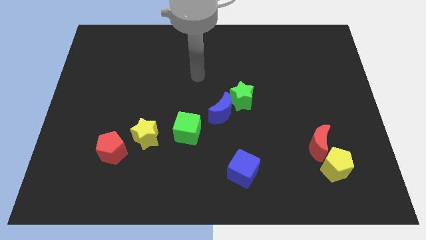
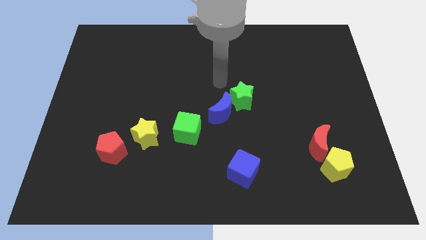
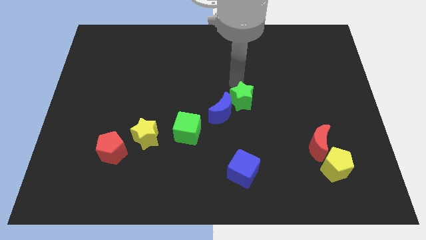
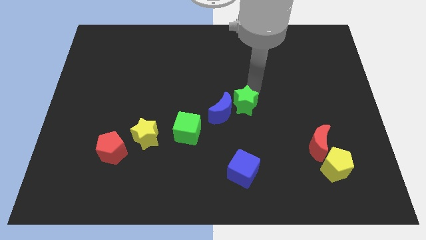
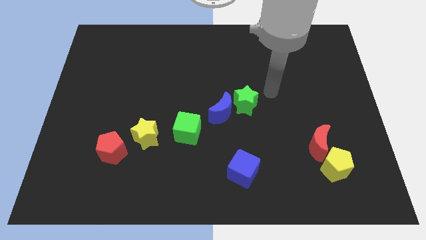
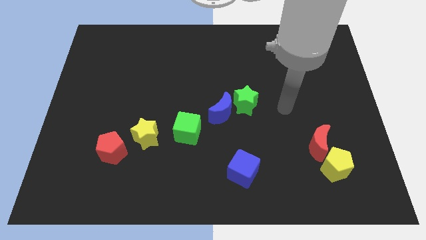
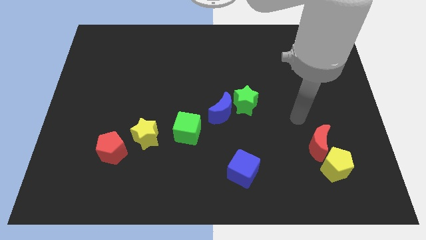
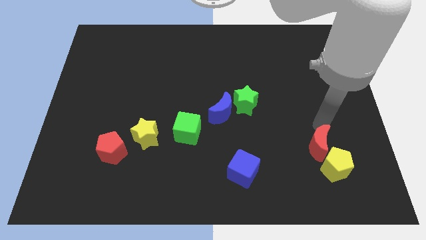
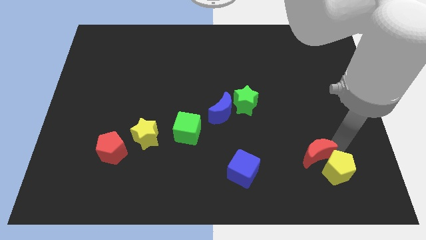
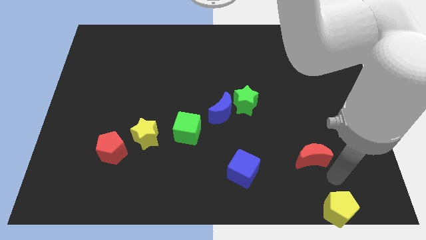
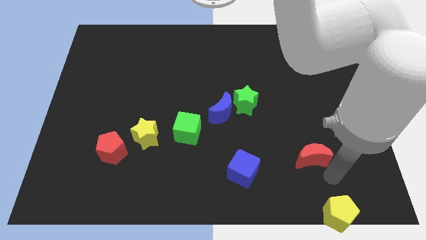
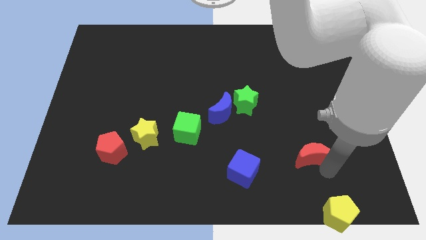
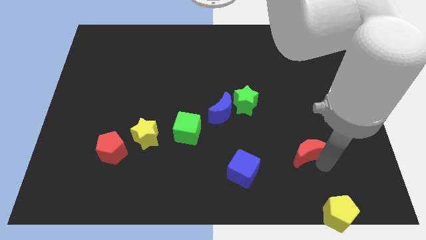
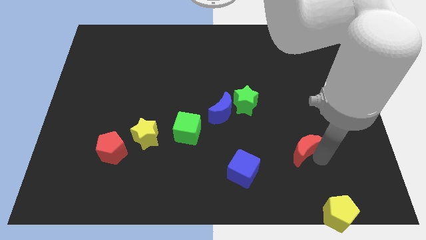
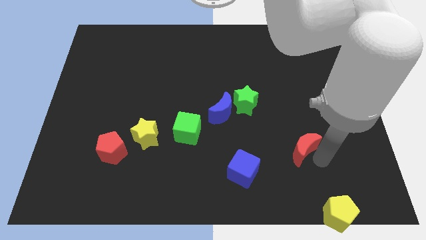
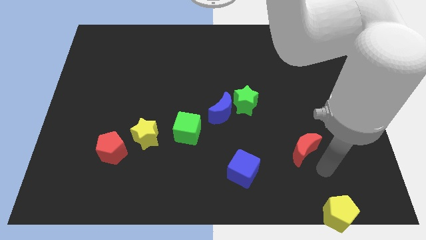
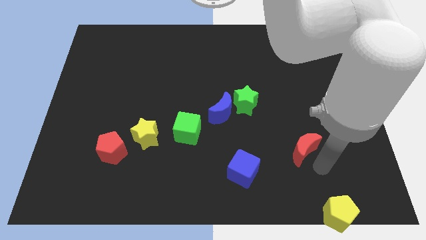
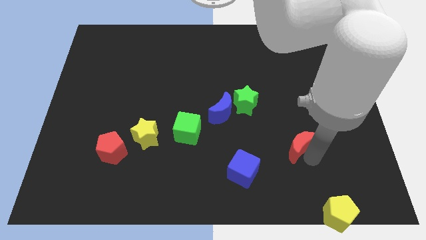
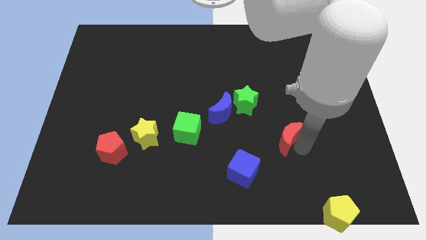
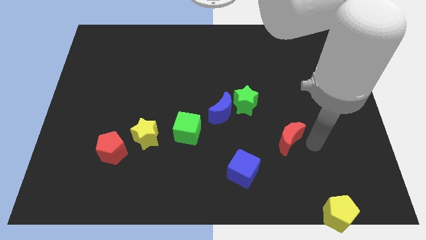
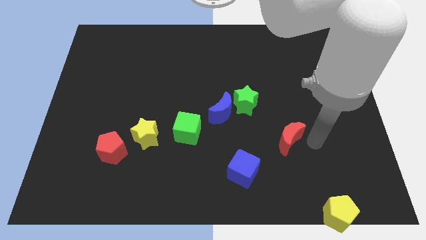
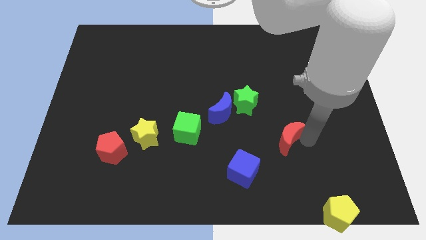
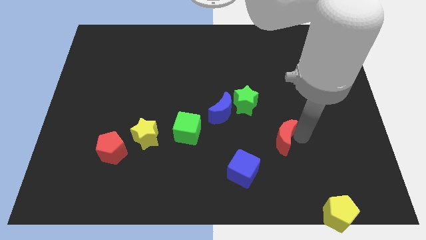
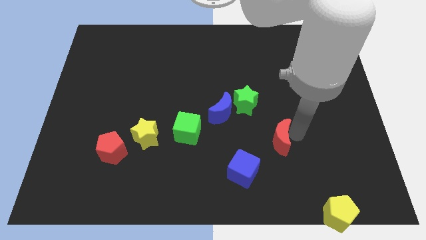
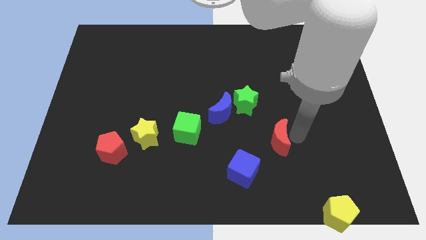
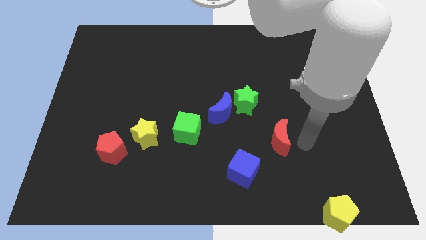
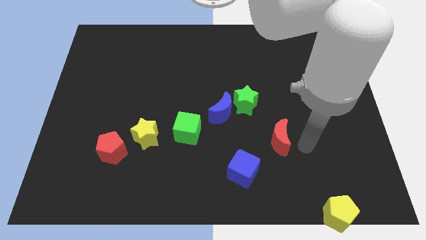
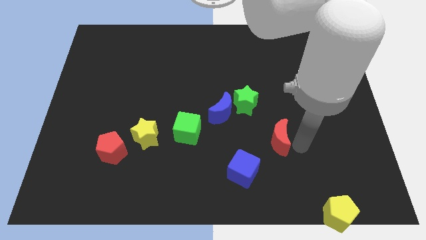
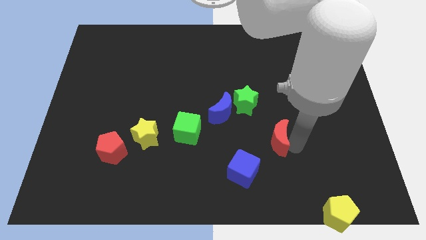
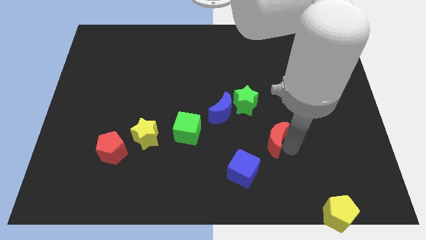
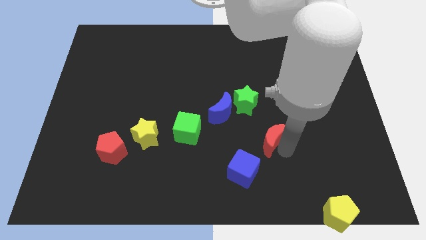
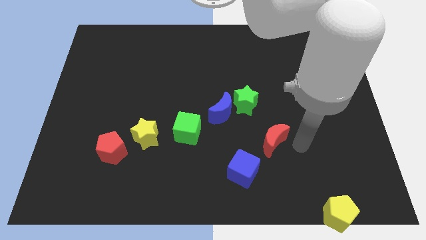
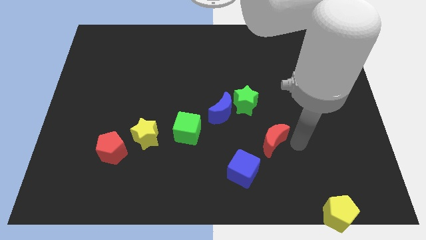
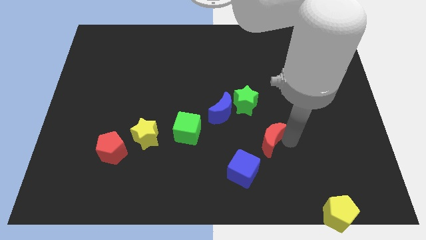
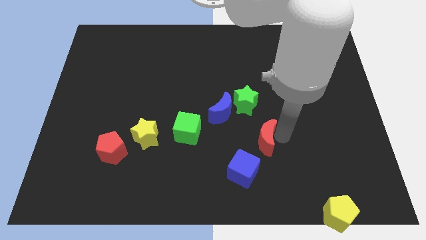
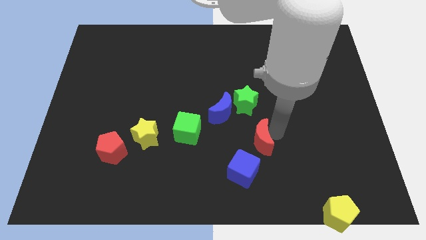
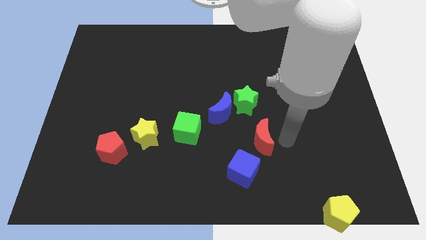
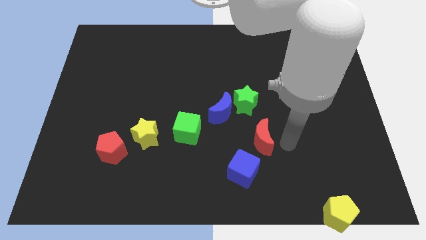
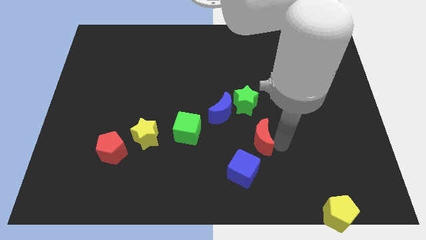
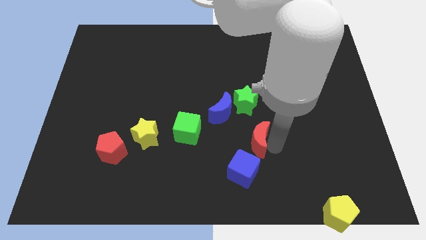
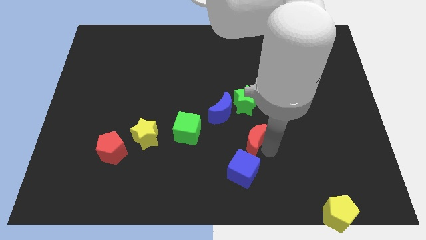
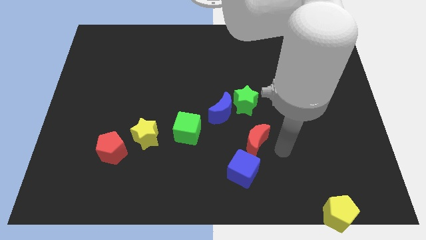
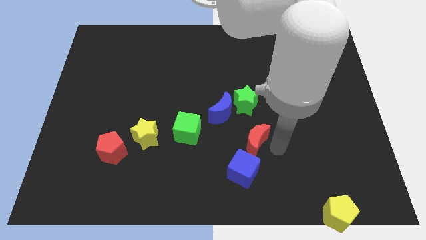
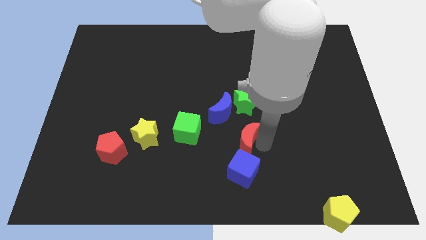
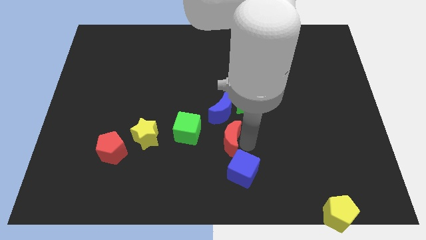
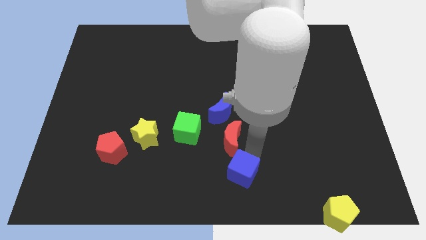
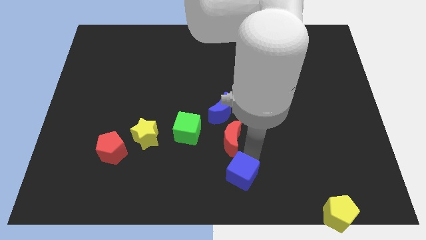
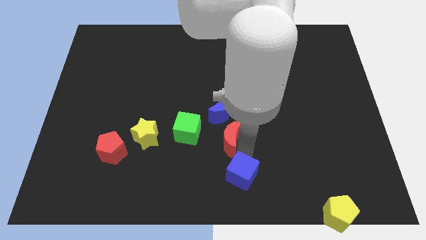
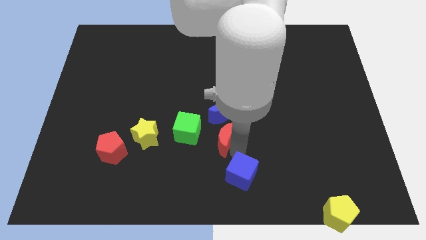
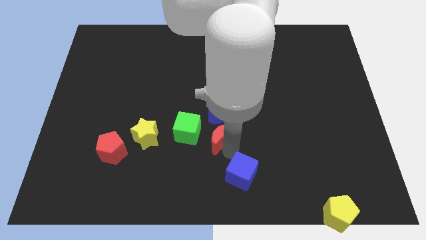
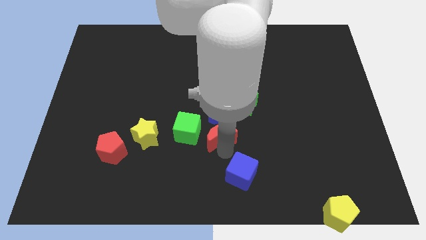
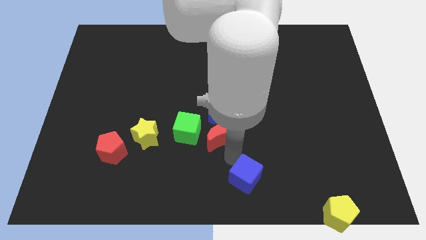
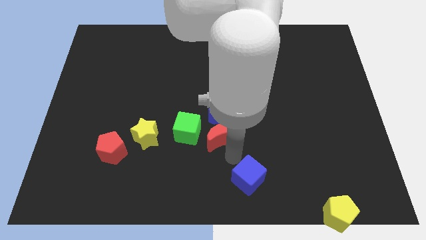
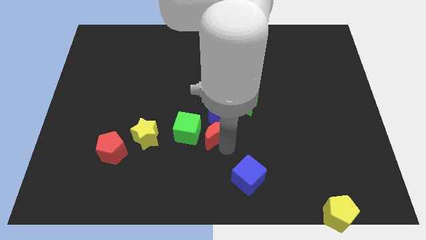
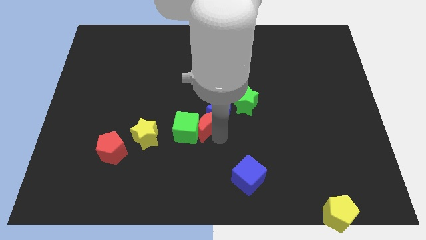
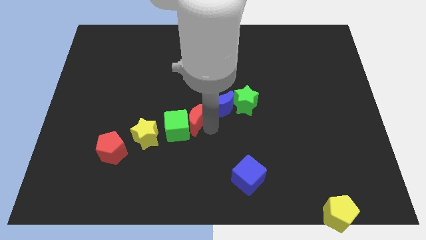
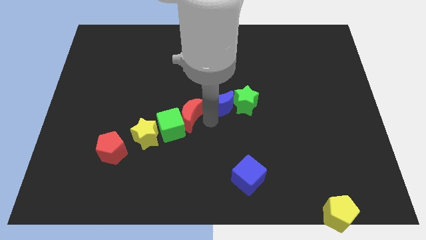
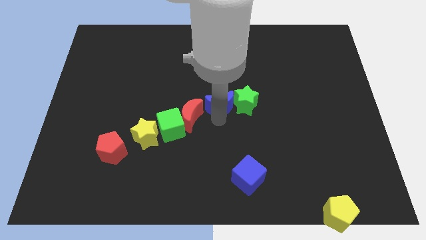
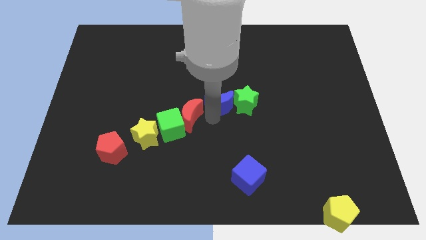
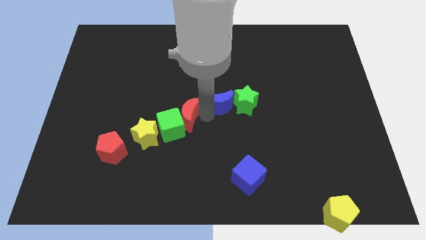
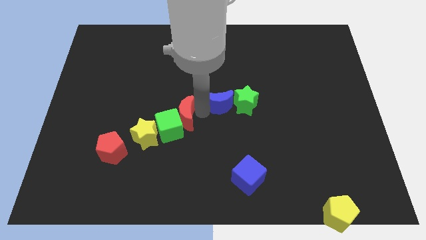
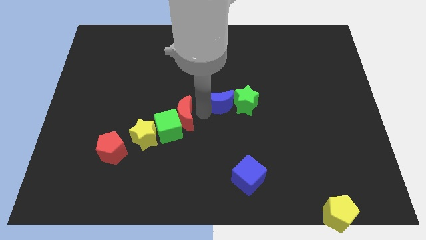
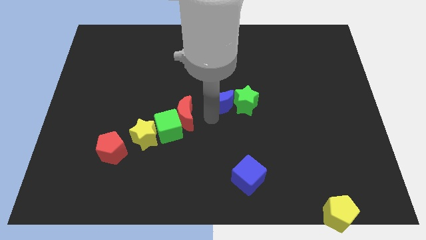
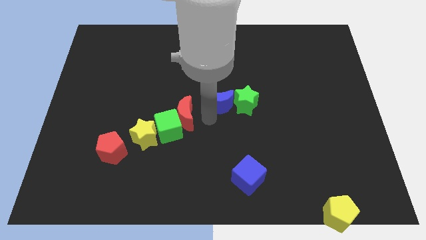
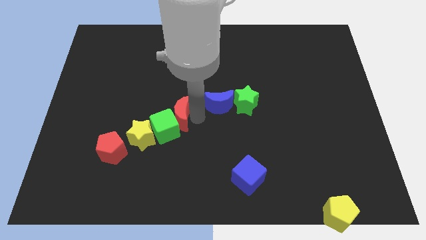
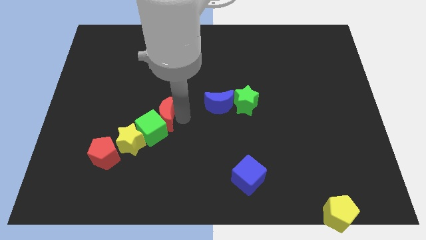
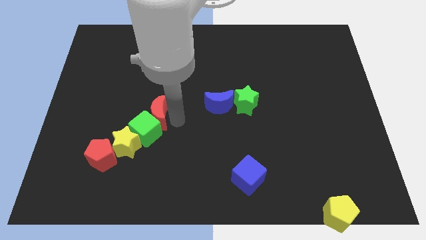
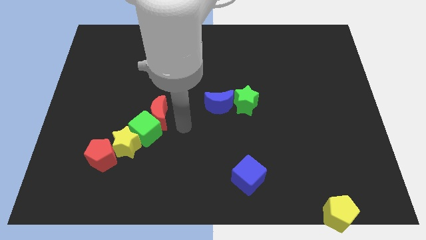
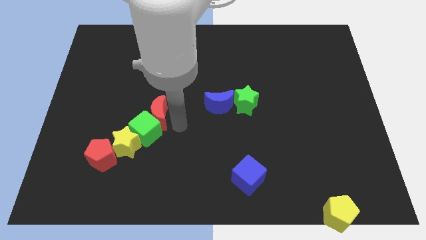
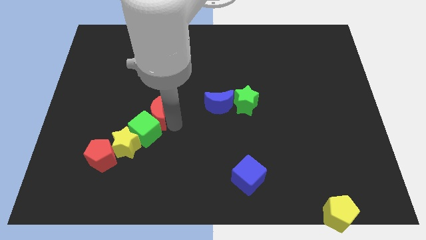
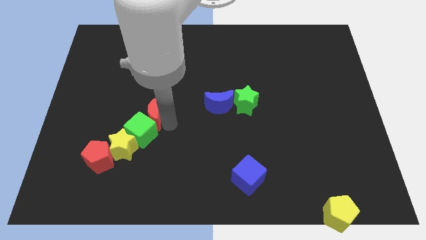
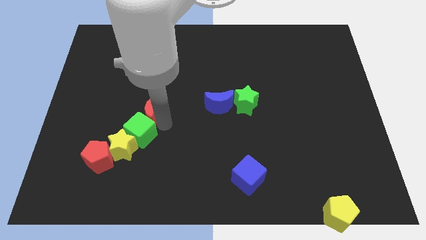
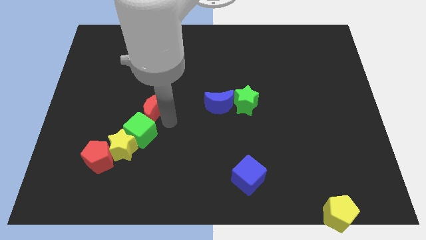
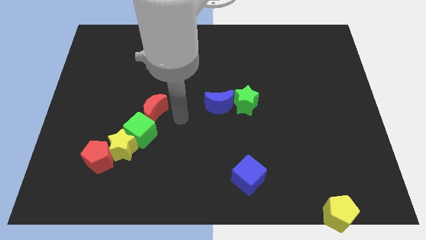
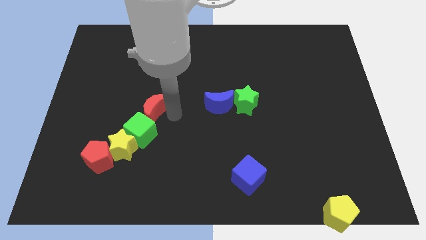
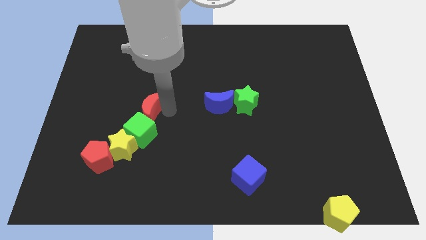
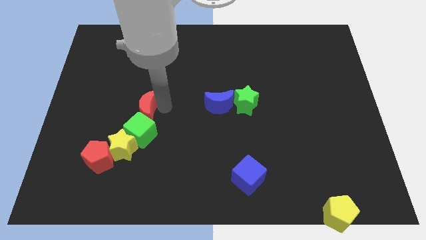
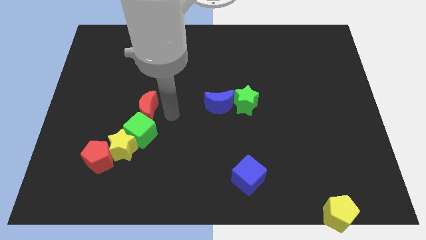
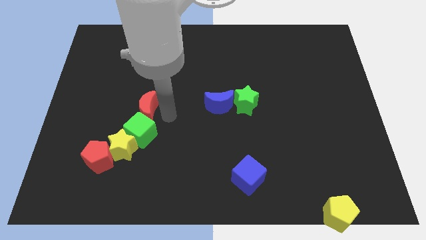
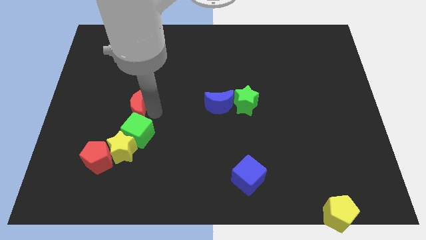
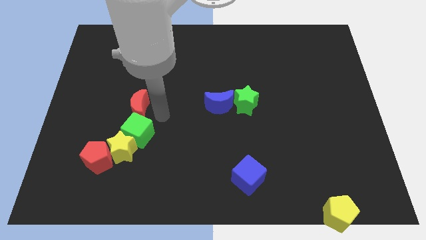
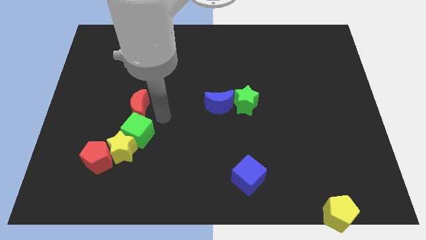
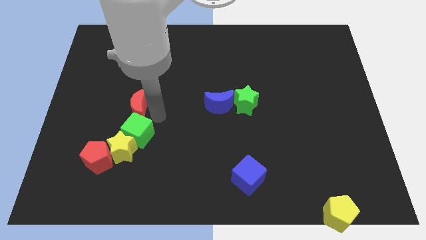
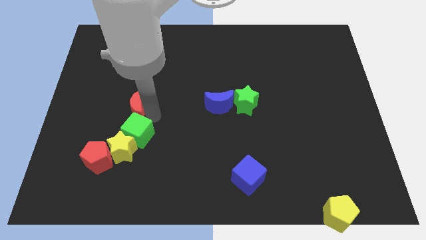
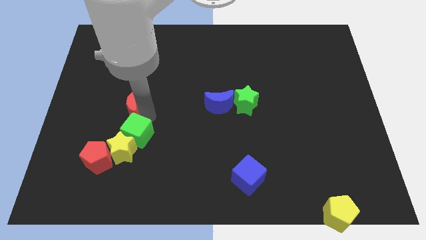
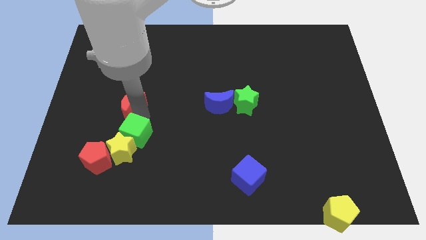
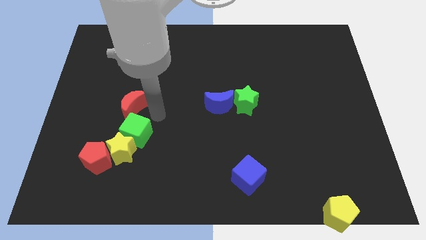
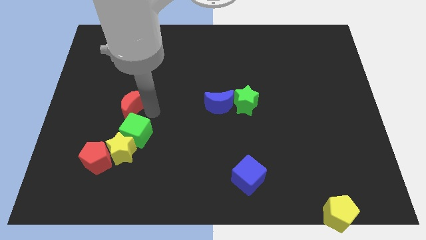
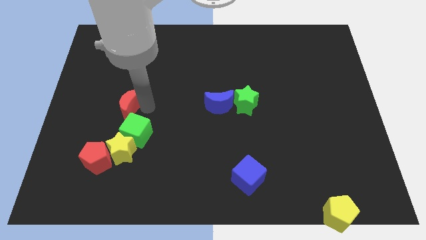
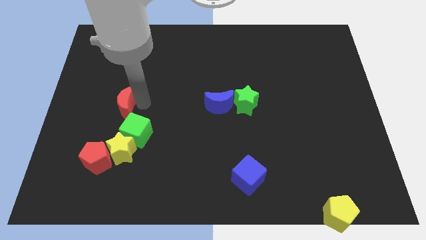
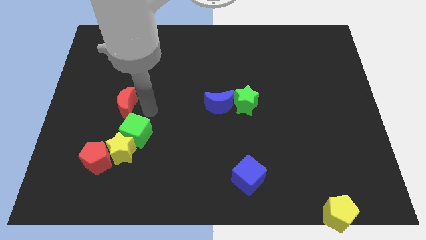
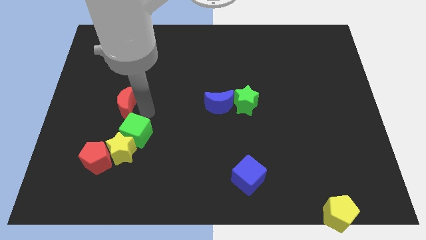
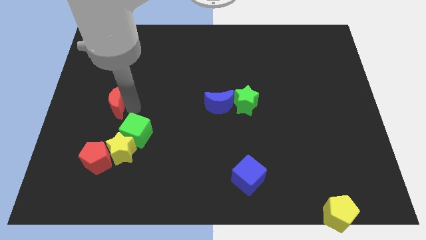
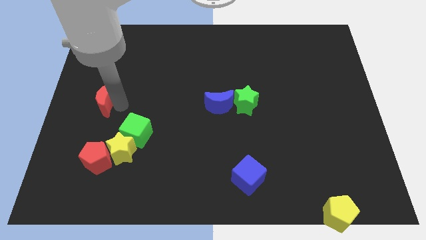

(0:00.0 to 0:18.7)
move the red moon to the center left
